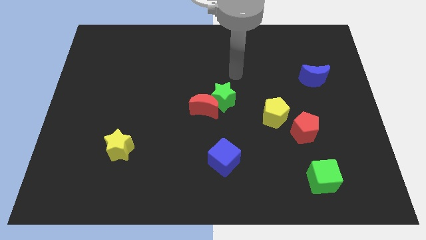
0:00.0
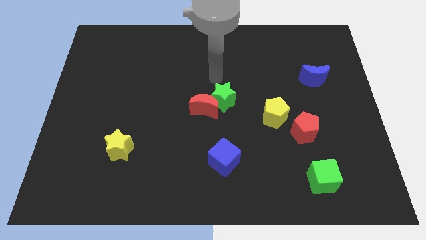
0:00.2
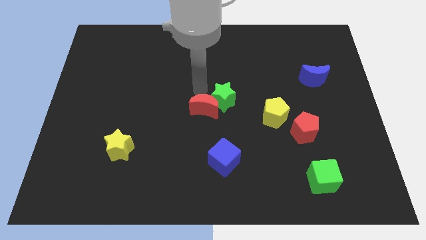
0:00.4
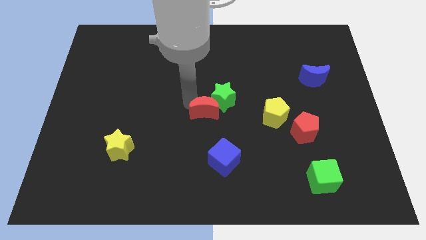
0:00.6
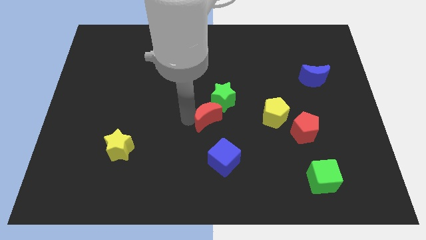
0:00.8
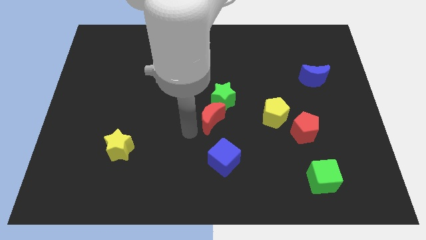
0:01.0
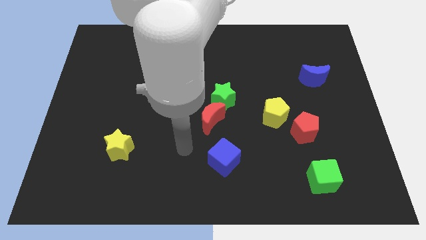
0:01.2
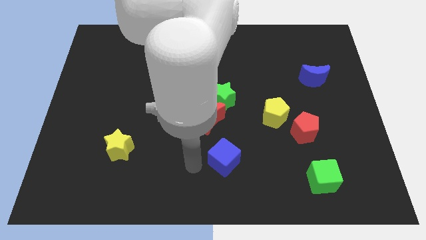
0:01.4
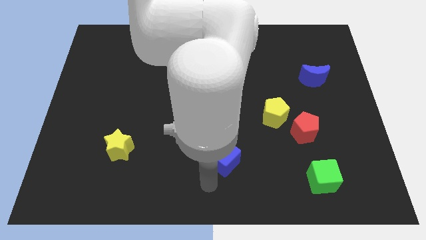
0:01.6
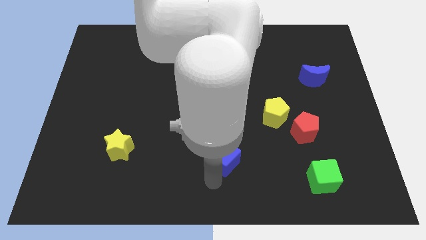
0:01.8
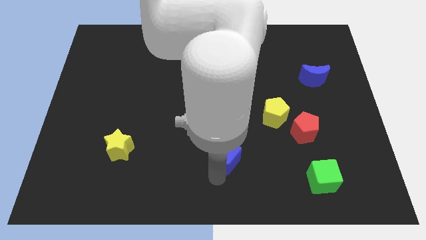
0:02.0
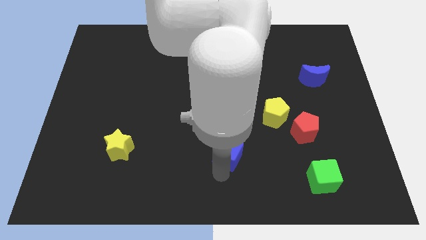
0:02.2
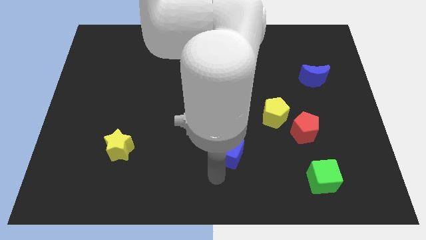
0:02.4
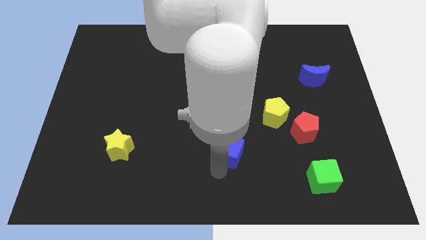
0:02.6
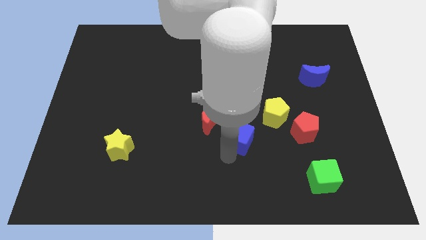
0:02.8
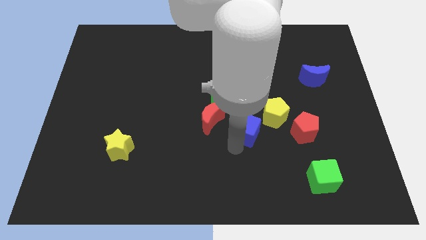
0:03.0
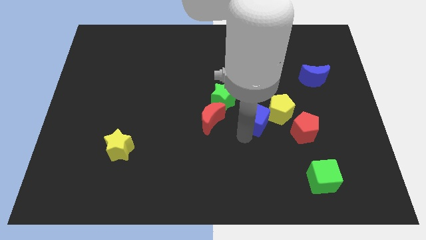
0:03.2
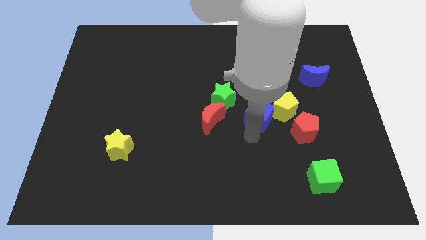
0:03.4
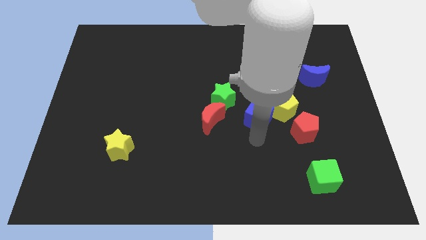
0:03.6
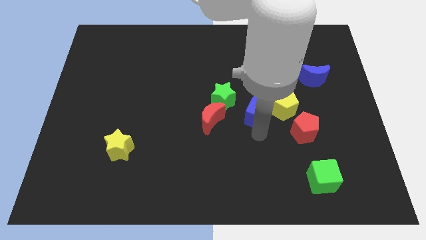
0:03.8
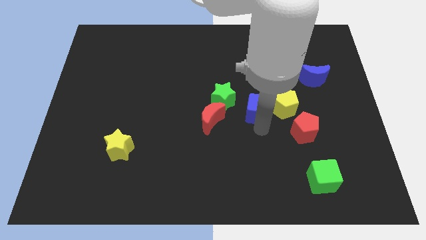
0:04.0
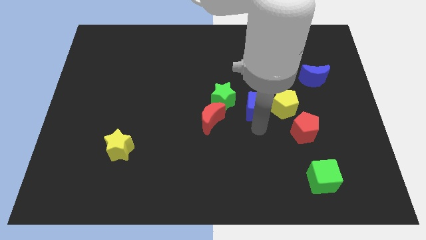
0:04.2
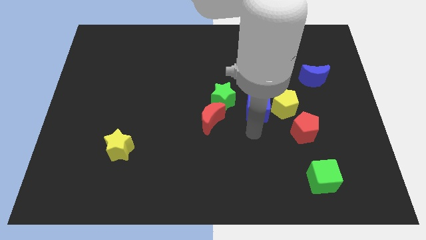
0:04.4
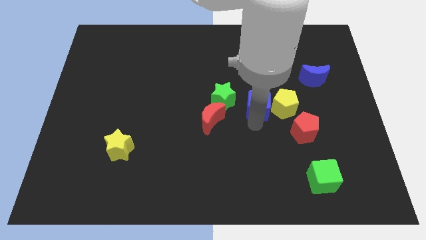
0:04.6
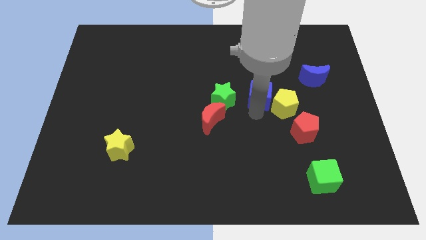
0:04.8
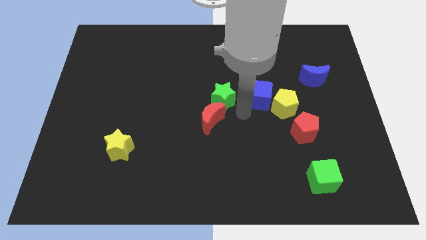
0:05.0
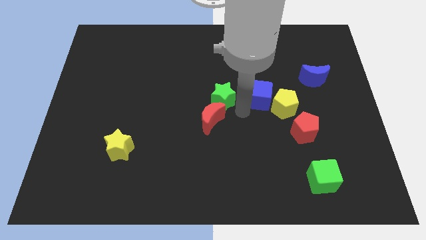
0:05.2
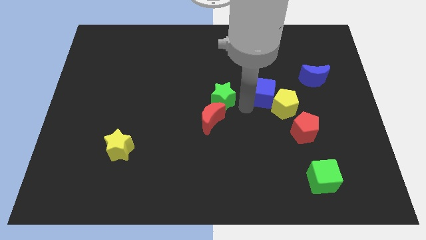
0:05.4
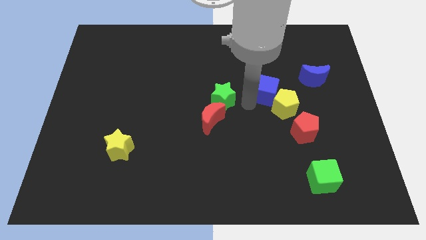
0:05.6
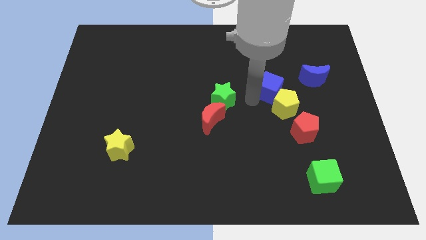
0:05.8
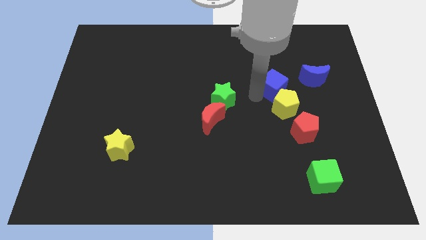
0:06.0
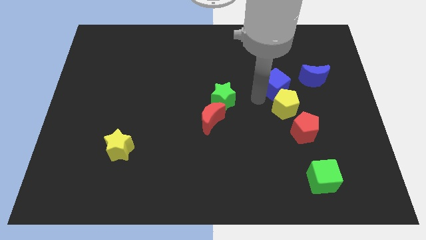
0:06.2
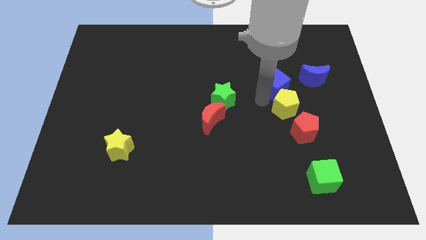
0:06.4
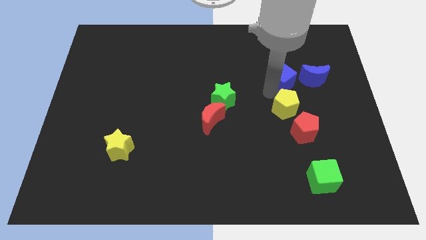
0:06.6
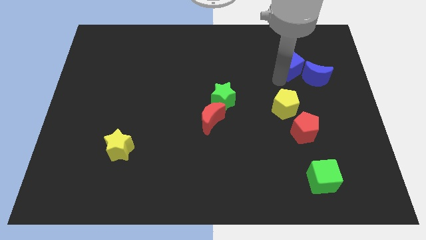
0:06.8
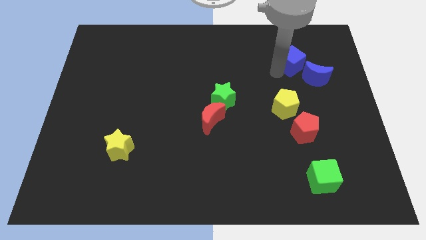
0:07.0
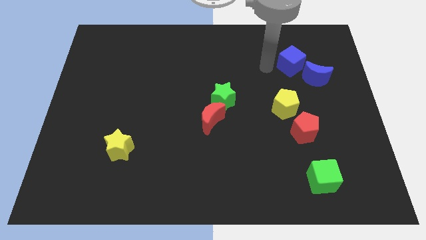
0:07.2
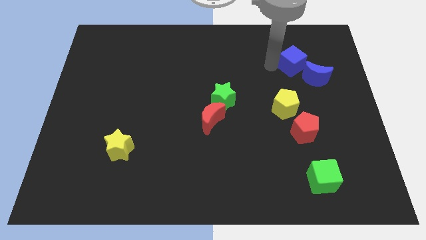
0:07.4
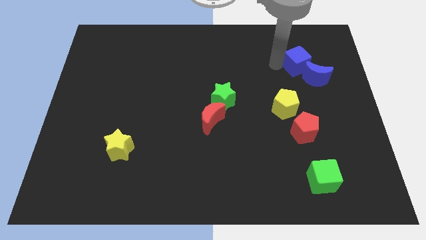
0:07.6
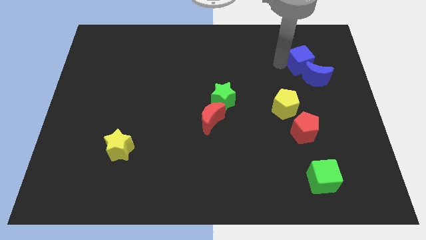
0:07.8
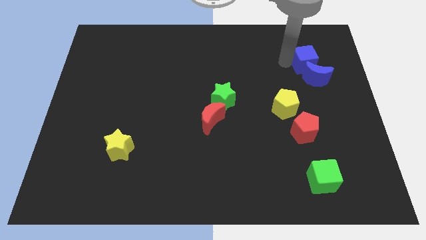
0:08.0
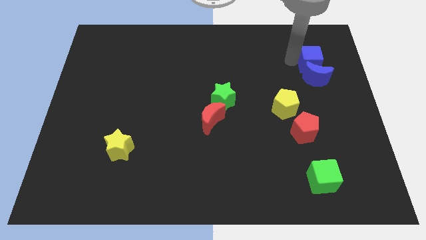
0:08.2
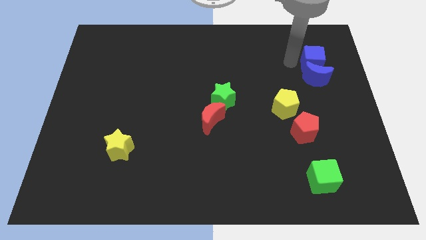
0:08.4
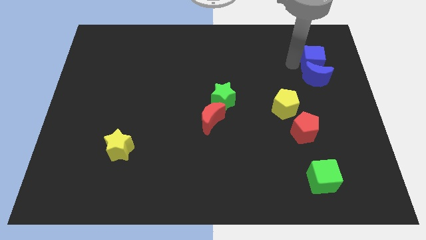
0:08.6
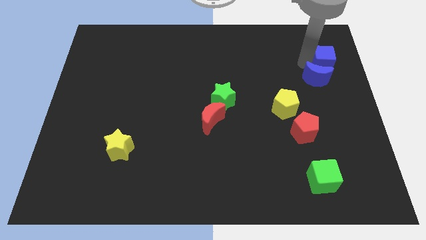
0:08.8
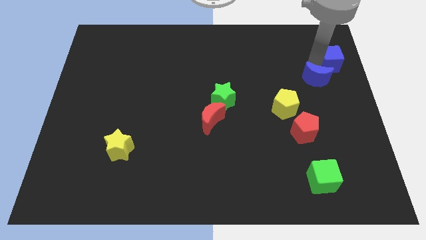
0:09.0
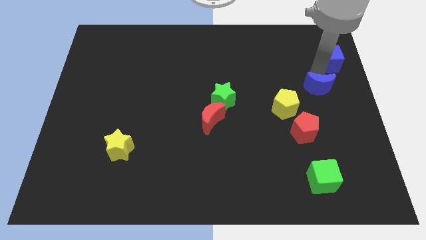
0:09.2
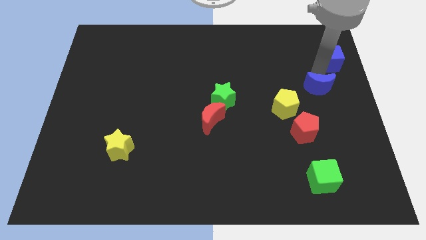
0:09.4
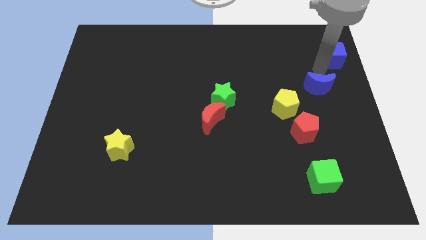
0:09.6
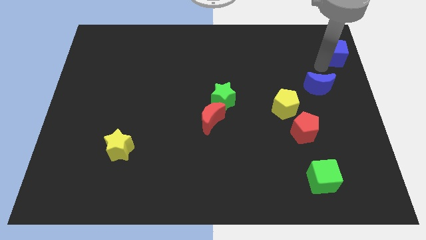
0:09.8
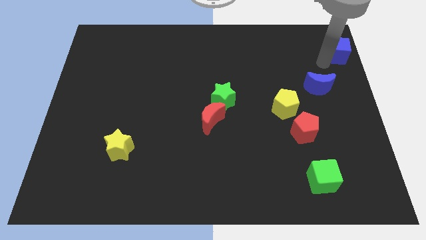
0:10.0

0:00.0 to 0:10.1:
move the blue cube to the upper right corner
